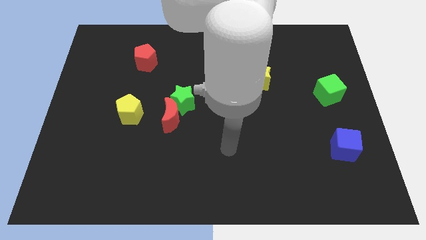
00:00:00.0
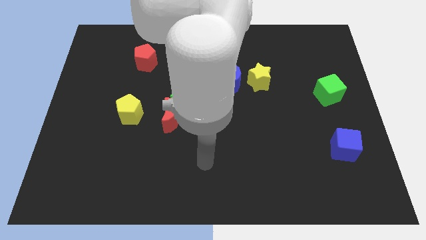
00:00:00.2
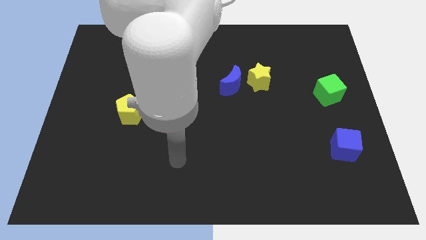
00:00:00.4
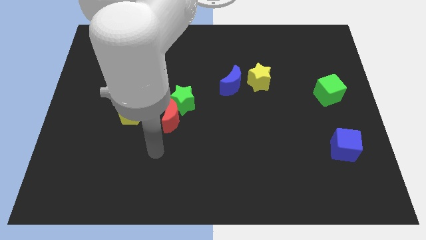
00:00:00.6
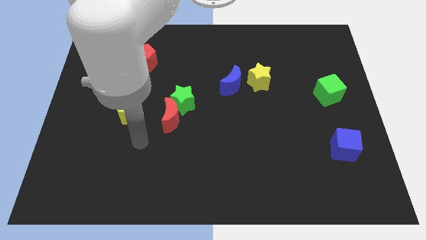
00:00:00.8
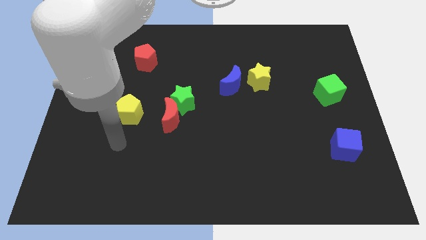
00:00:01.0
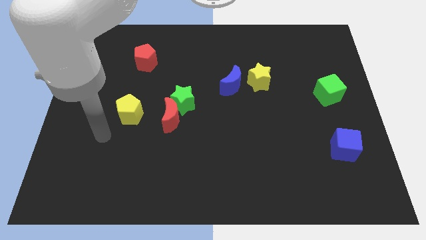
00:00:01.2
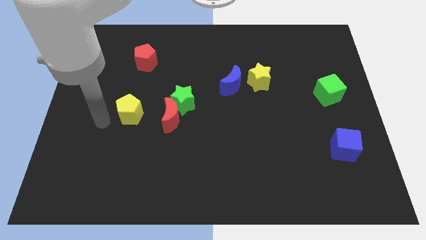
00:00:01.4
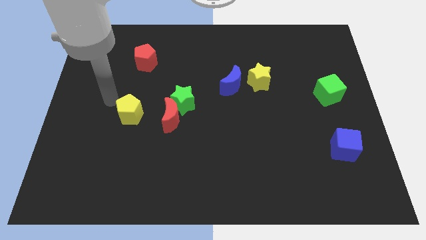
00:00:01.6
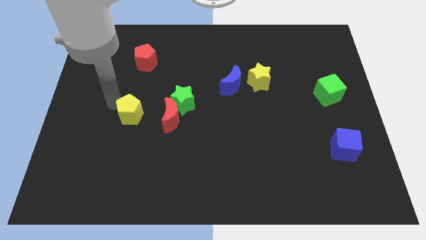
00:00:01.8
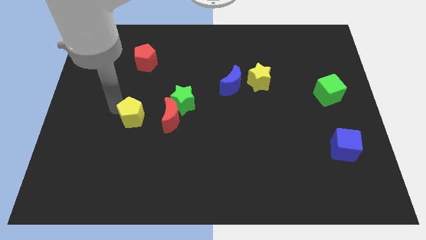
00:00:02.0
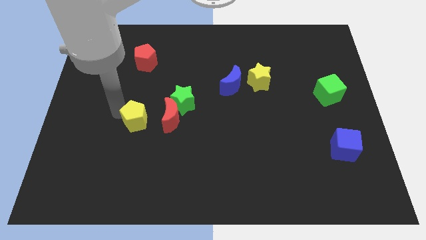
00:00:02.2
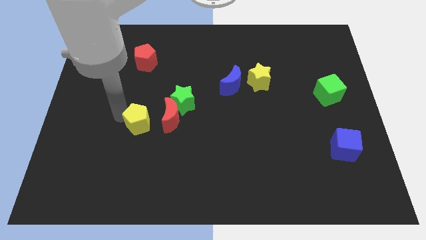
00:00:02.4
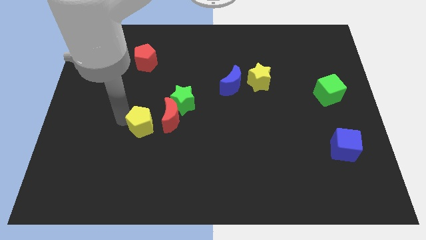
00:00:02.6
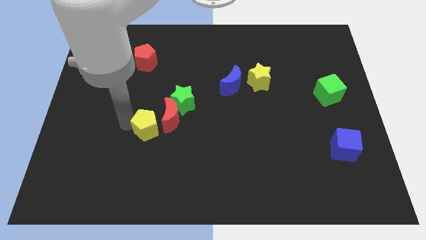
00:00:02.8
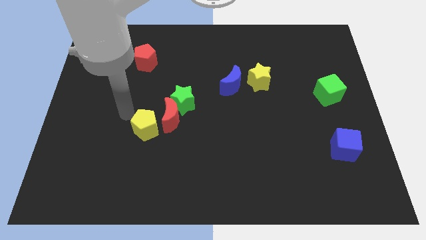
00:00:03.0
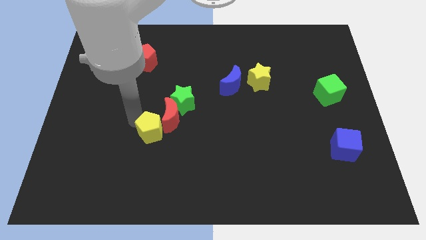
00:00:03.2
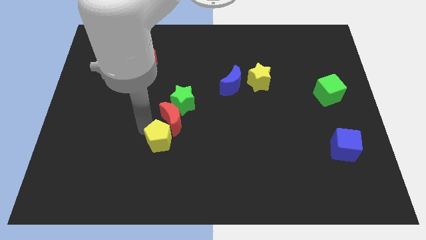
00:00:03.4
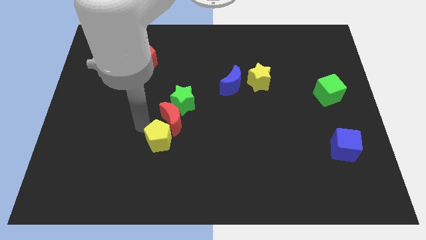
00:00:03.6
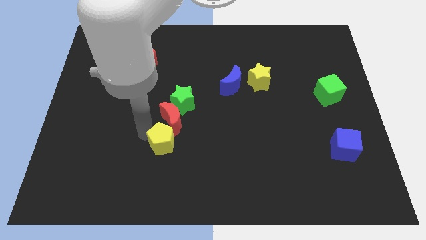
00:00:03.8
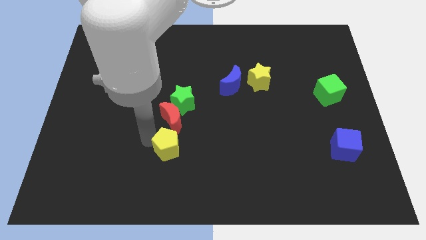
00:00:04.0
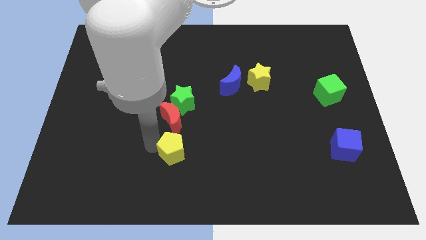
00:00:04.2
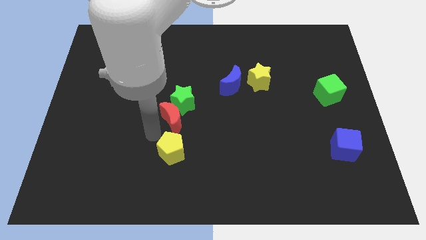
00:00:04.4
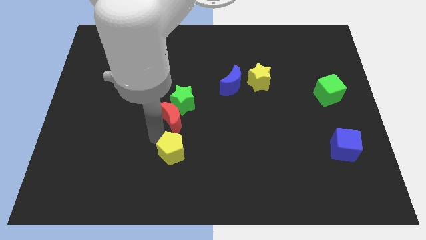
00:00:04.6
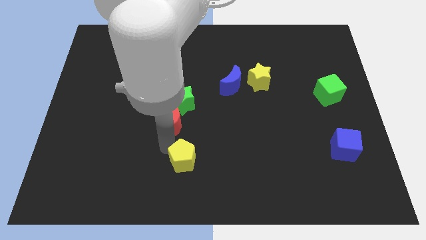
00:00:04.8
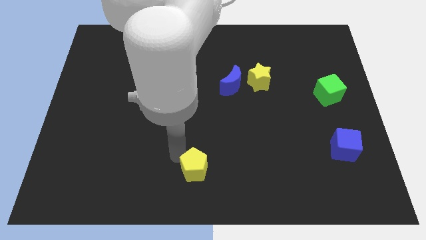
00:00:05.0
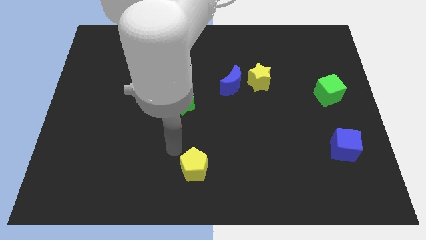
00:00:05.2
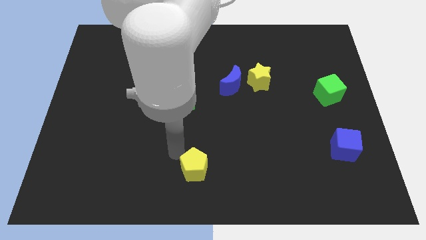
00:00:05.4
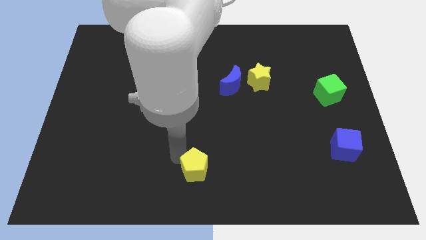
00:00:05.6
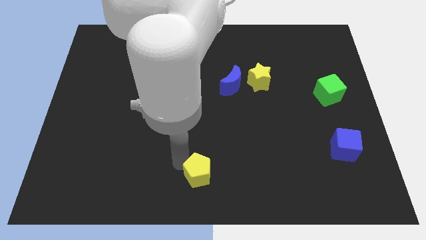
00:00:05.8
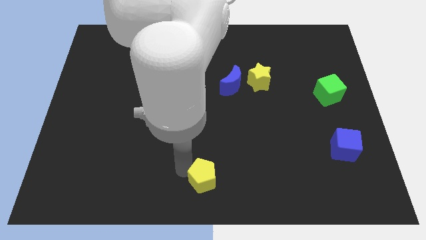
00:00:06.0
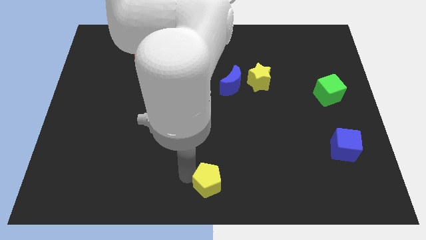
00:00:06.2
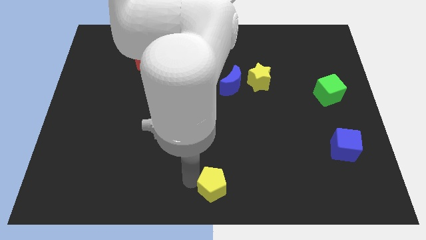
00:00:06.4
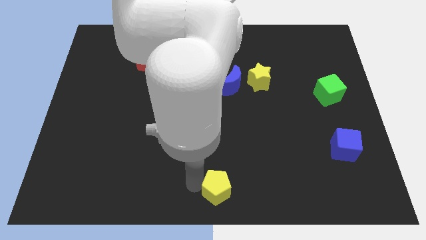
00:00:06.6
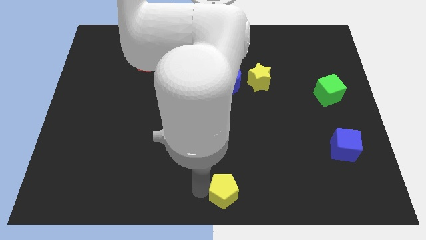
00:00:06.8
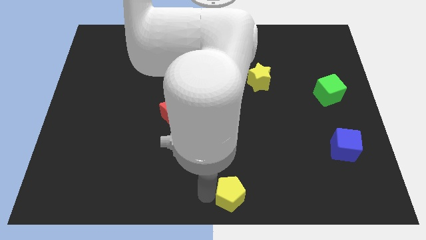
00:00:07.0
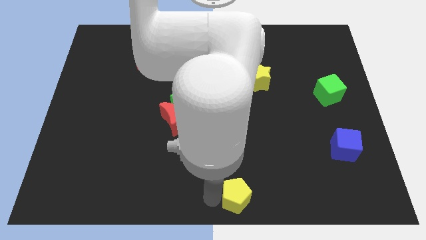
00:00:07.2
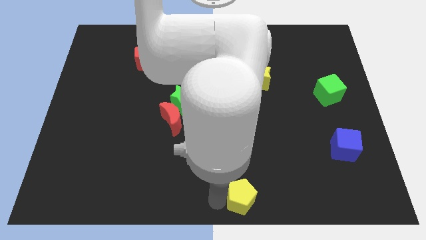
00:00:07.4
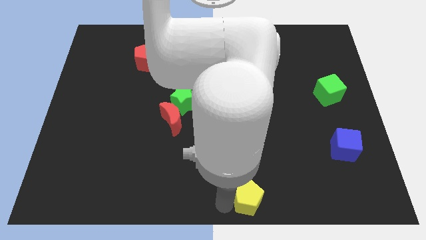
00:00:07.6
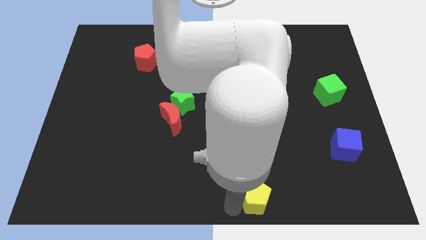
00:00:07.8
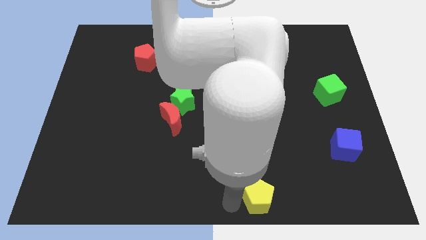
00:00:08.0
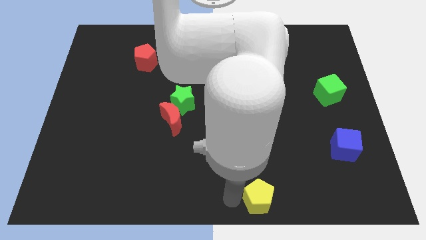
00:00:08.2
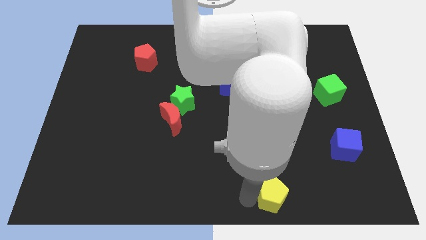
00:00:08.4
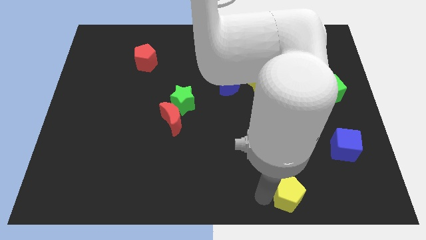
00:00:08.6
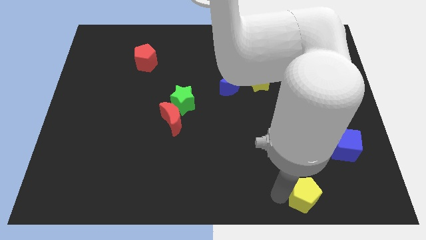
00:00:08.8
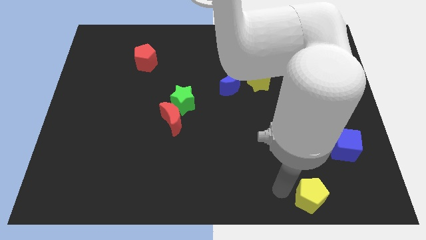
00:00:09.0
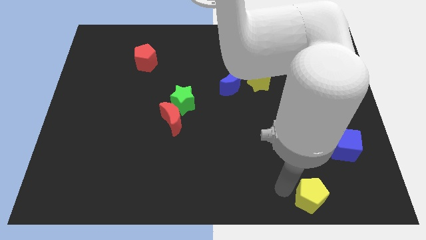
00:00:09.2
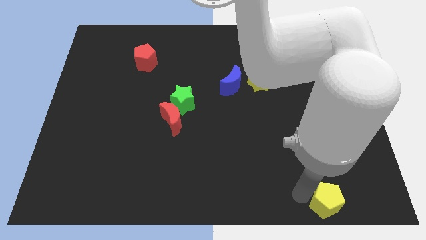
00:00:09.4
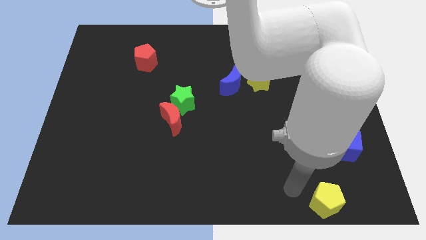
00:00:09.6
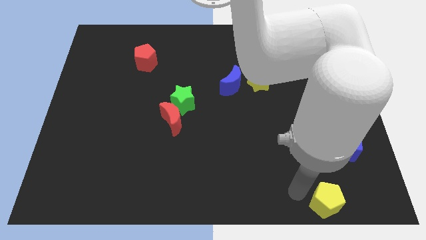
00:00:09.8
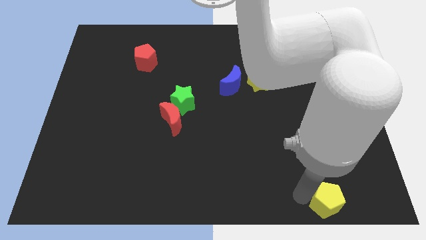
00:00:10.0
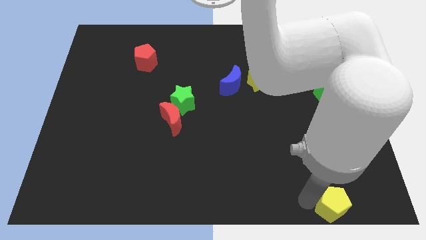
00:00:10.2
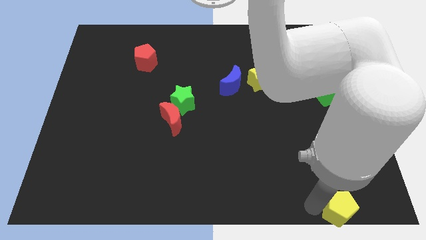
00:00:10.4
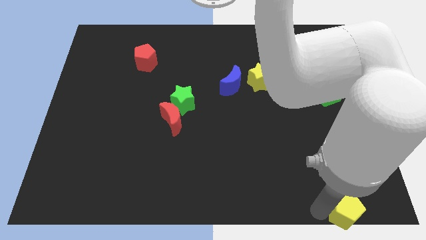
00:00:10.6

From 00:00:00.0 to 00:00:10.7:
put the yellow pentagon to the bottom right of the board

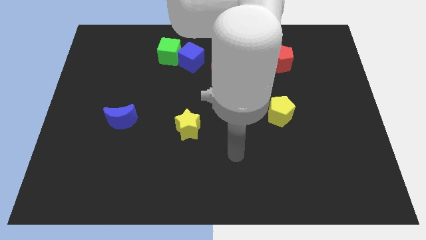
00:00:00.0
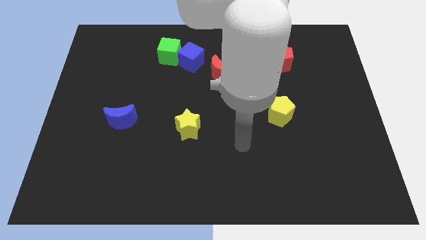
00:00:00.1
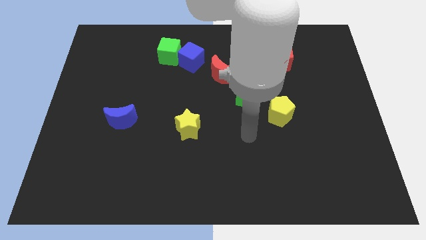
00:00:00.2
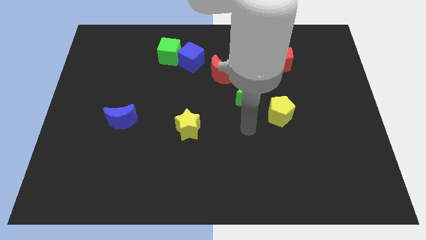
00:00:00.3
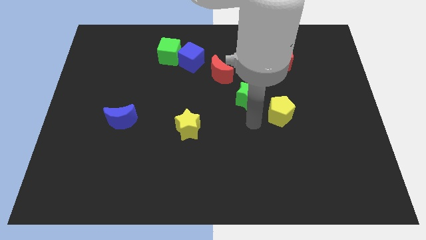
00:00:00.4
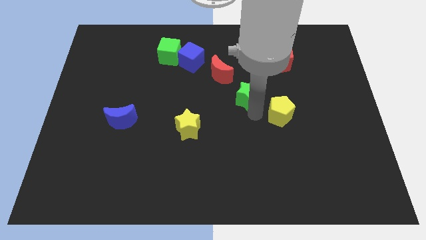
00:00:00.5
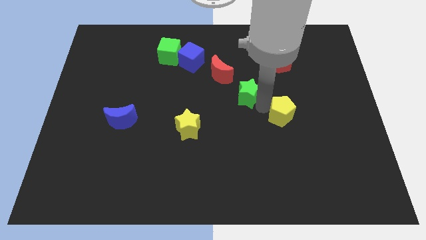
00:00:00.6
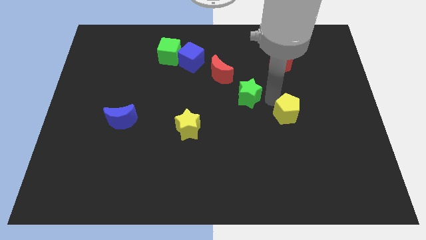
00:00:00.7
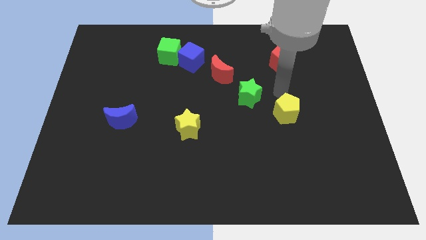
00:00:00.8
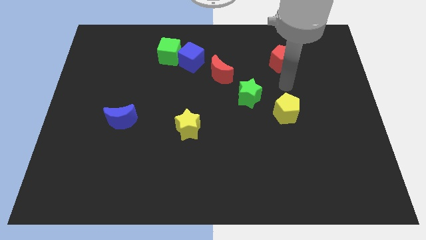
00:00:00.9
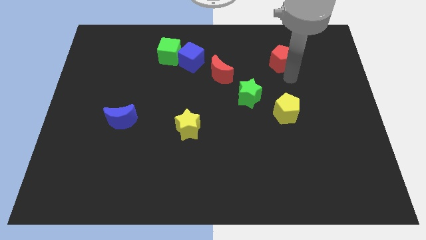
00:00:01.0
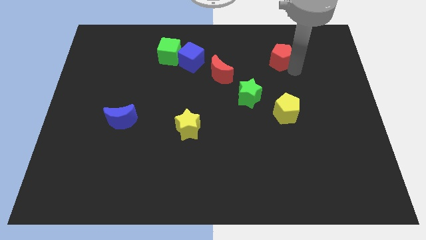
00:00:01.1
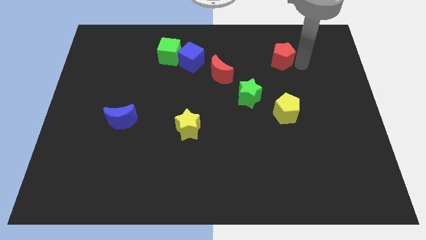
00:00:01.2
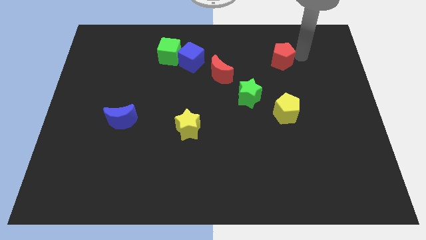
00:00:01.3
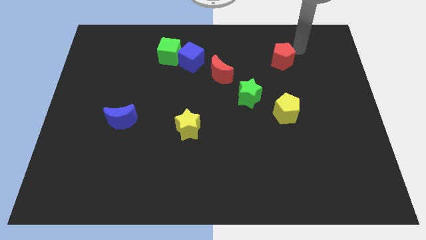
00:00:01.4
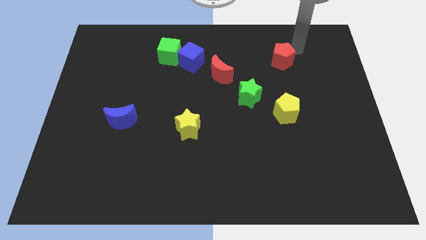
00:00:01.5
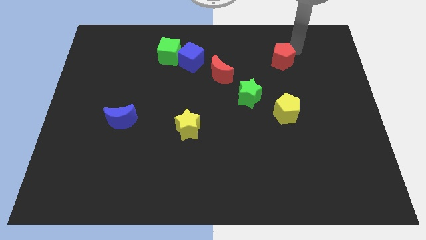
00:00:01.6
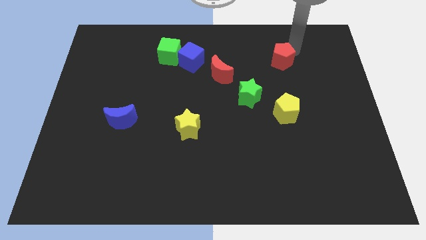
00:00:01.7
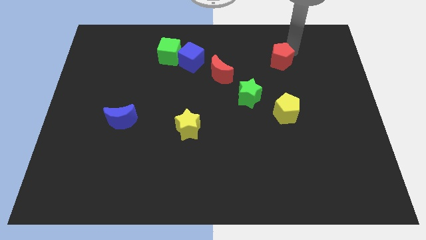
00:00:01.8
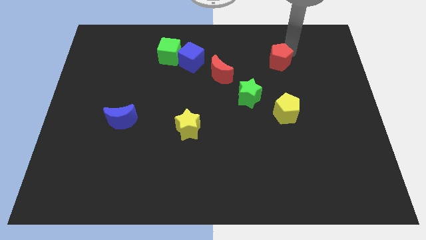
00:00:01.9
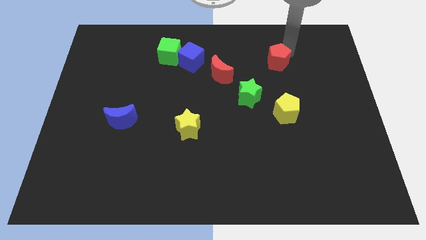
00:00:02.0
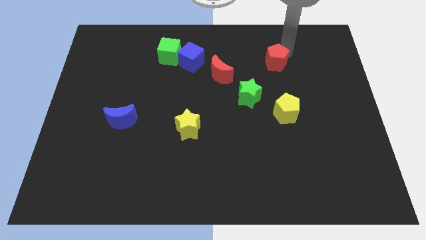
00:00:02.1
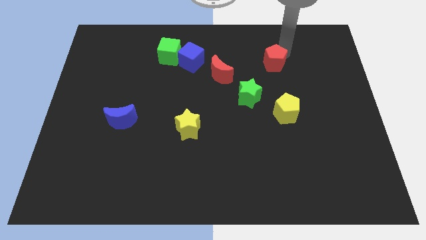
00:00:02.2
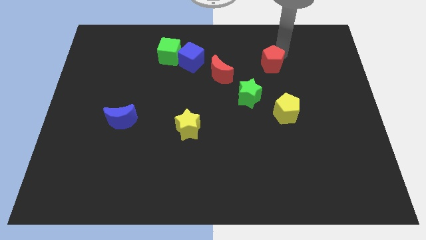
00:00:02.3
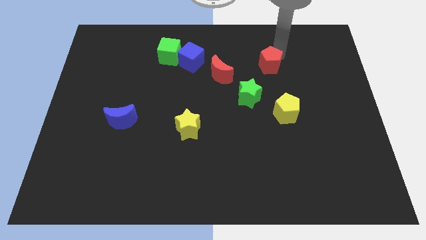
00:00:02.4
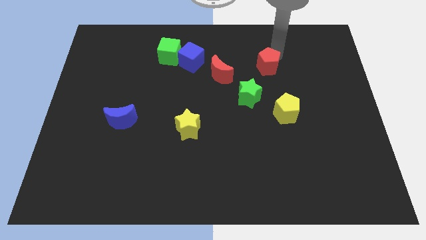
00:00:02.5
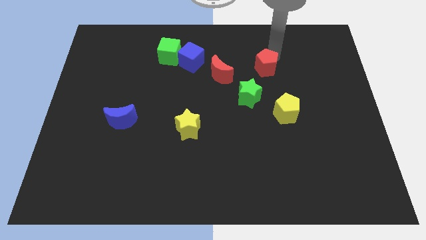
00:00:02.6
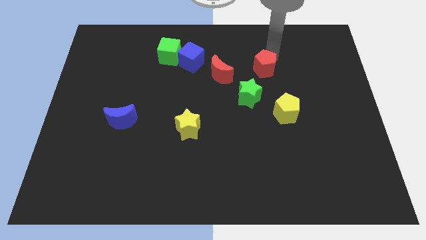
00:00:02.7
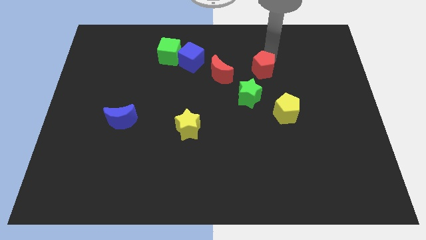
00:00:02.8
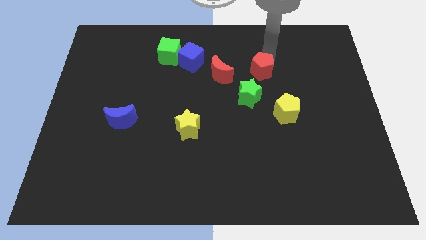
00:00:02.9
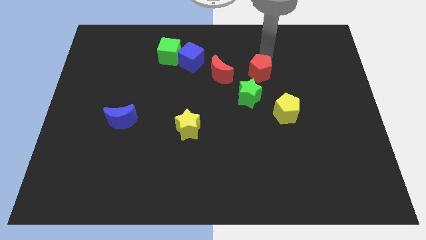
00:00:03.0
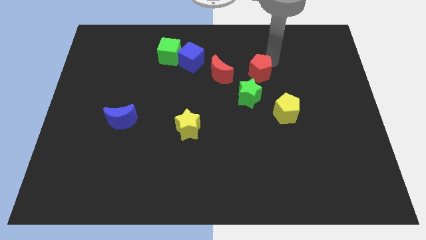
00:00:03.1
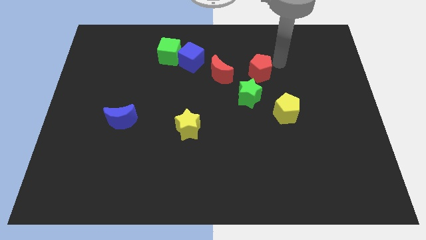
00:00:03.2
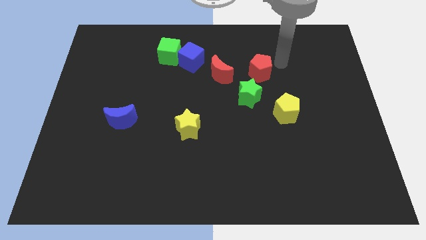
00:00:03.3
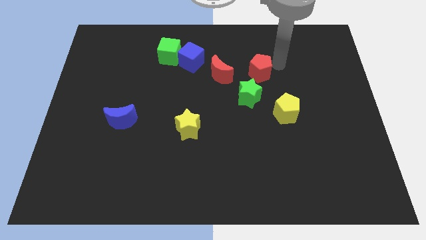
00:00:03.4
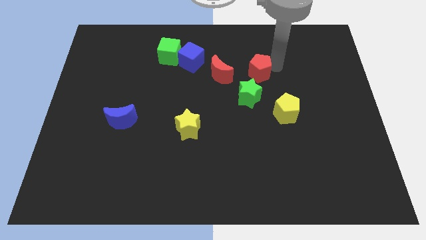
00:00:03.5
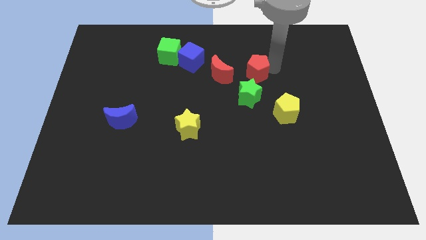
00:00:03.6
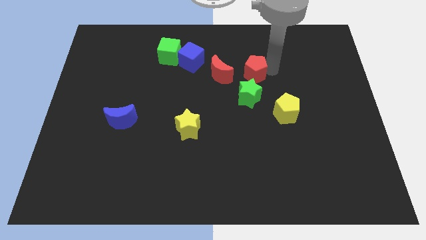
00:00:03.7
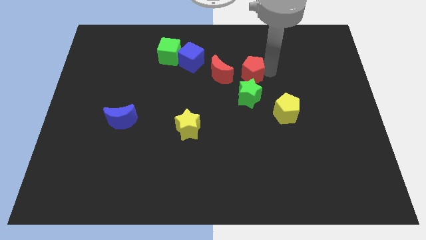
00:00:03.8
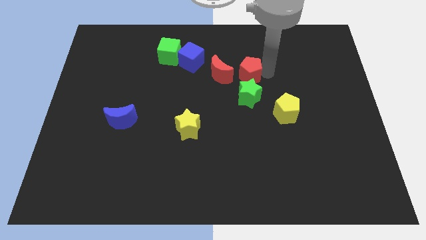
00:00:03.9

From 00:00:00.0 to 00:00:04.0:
slide the red pentagon to the middle of the board
